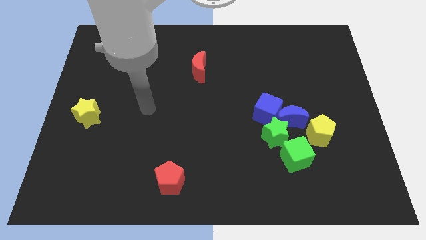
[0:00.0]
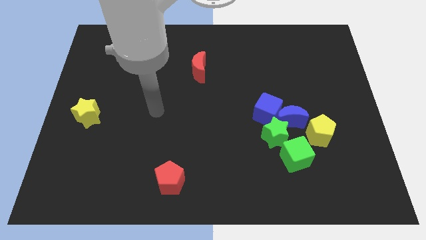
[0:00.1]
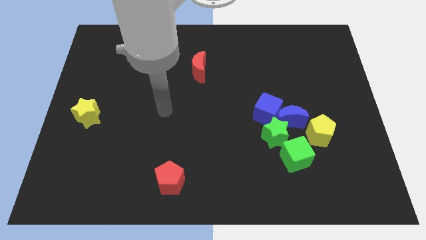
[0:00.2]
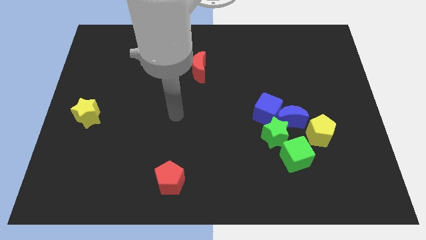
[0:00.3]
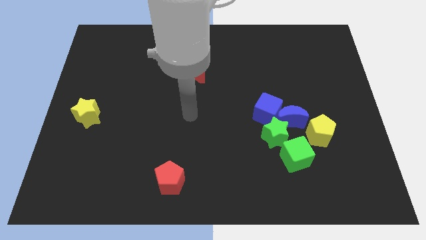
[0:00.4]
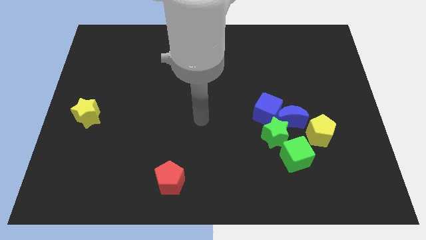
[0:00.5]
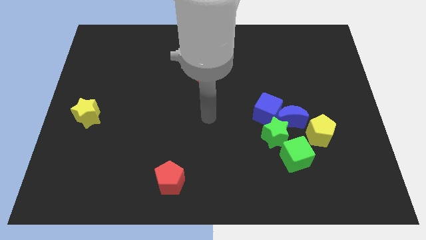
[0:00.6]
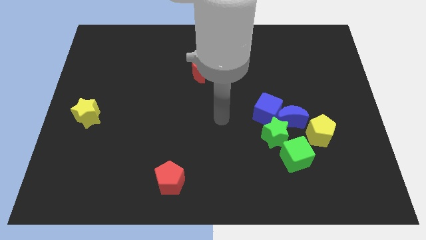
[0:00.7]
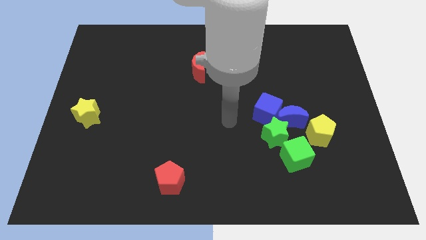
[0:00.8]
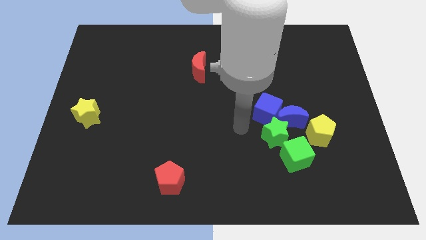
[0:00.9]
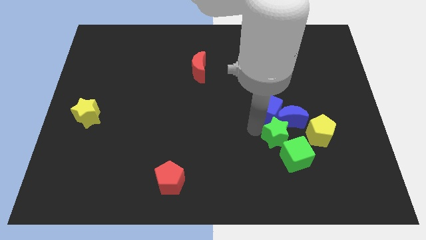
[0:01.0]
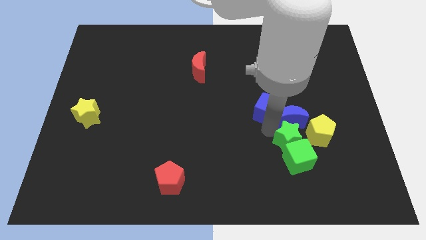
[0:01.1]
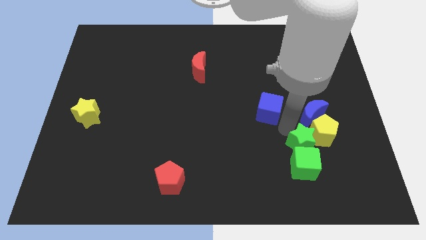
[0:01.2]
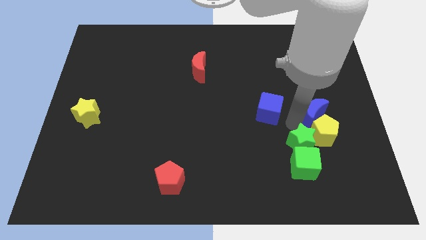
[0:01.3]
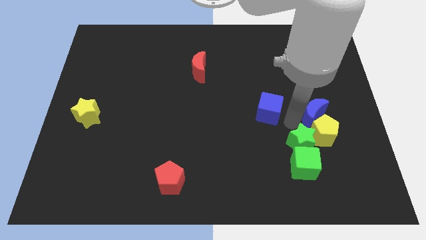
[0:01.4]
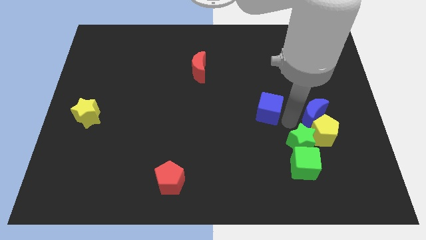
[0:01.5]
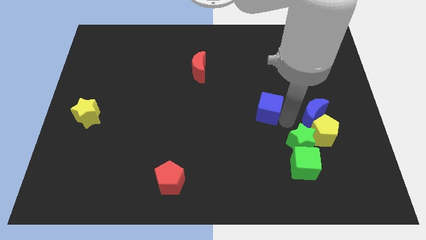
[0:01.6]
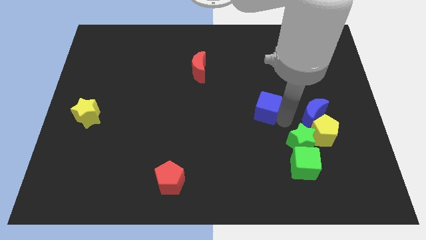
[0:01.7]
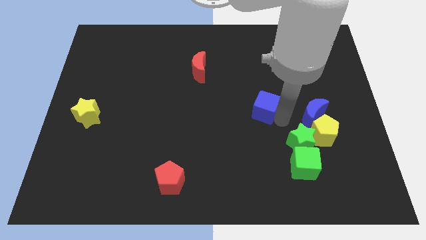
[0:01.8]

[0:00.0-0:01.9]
pull the blue cube apart from the blue moon and green star

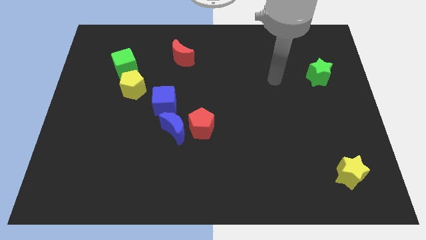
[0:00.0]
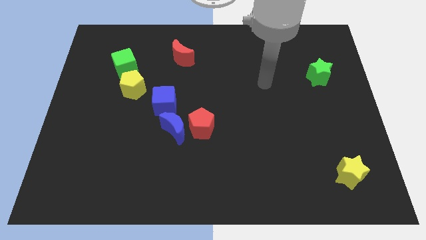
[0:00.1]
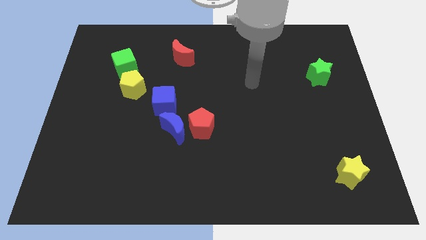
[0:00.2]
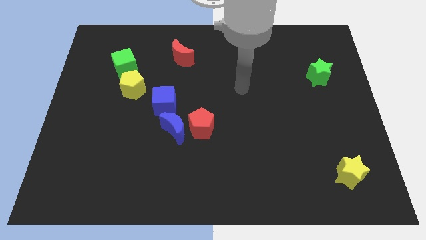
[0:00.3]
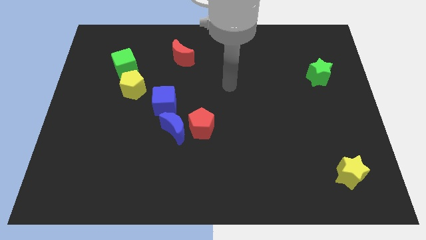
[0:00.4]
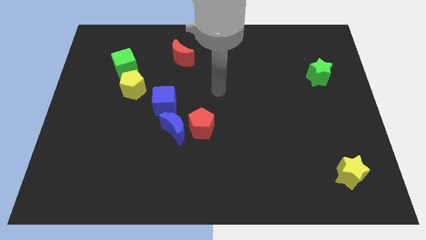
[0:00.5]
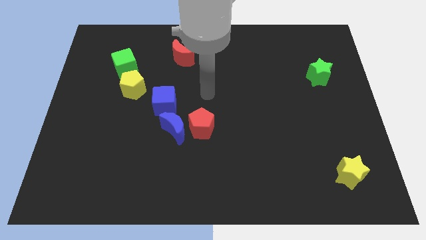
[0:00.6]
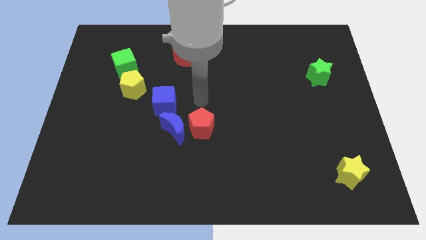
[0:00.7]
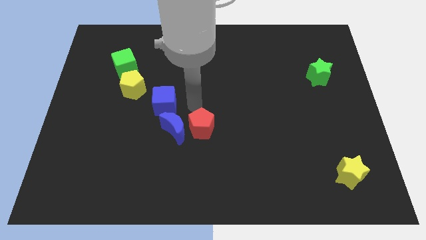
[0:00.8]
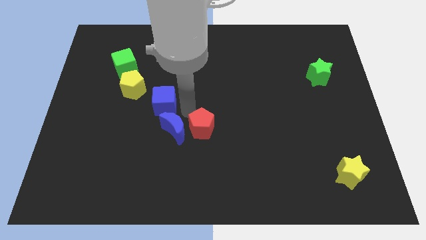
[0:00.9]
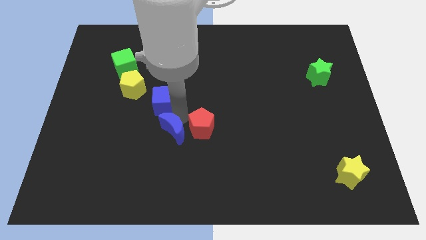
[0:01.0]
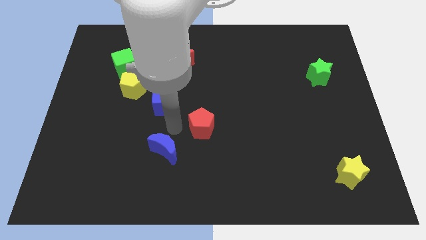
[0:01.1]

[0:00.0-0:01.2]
move the red pentagon away from the blue moon

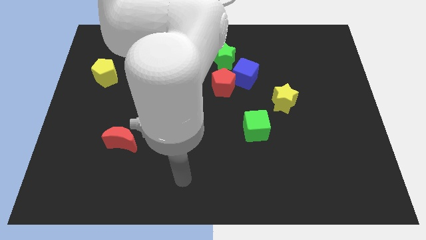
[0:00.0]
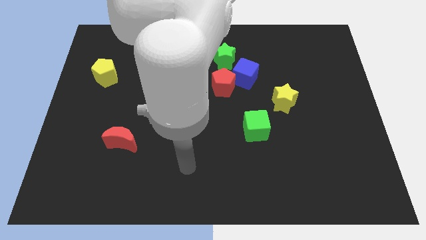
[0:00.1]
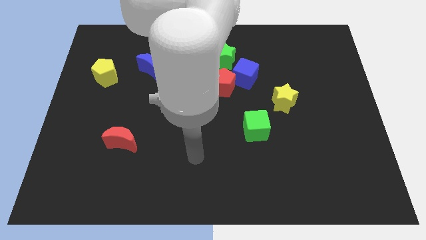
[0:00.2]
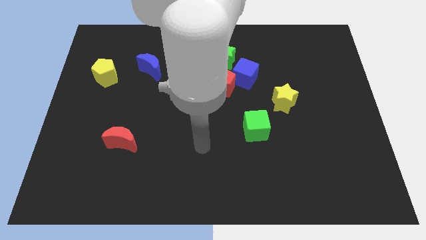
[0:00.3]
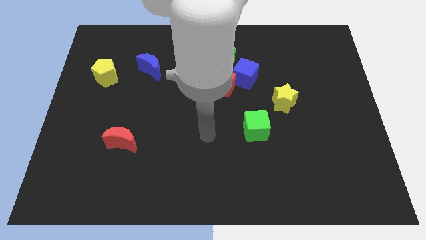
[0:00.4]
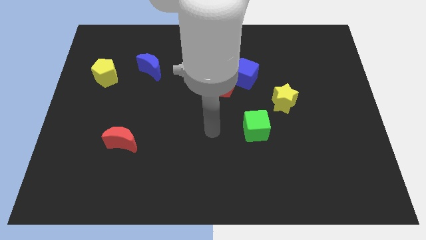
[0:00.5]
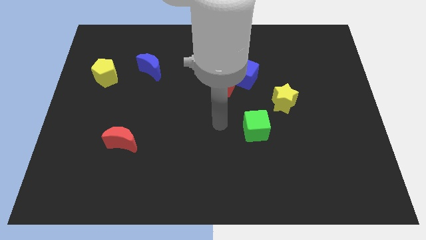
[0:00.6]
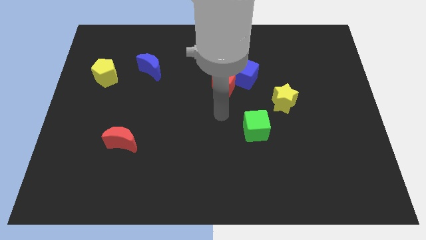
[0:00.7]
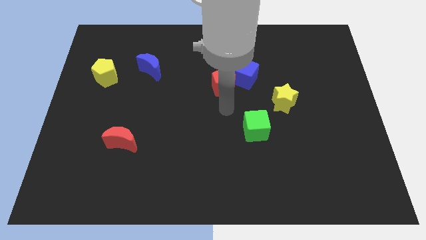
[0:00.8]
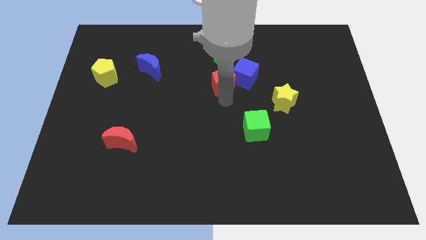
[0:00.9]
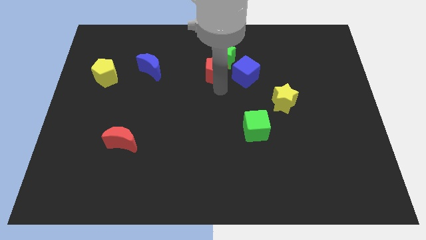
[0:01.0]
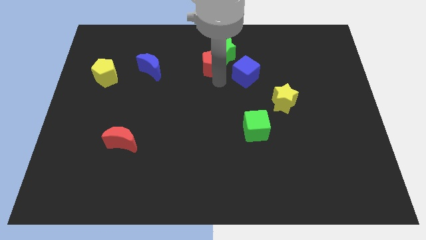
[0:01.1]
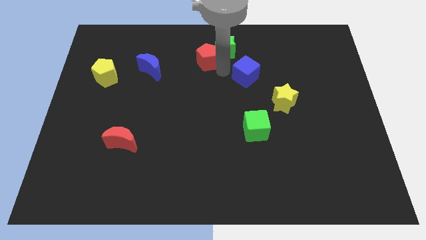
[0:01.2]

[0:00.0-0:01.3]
pull the blue cube apart from the red pentagon and green star

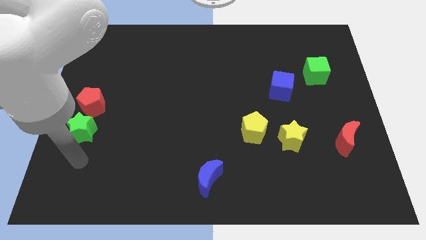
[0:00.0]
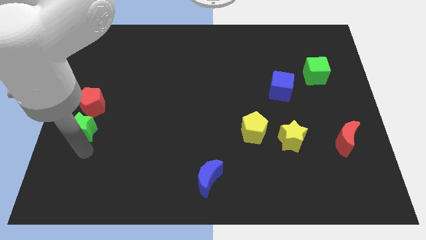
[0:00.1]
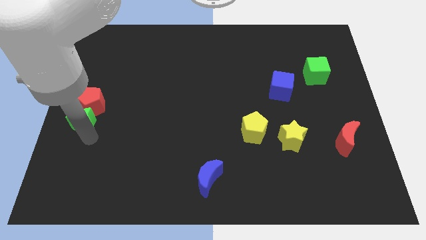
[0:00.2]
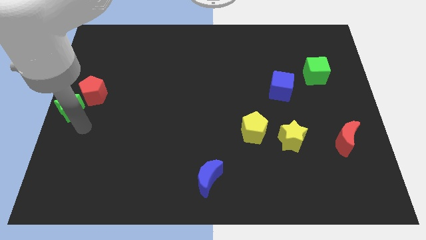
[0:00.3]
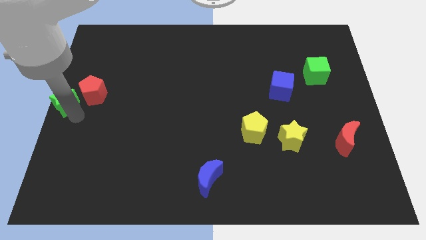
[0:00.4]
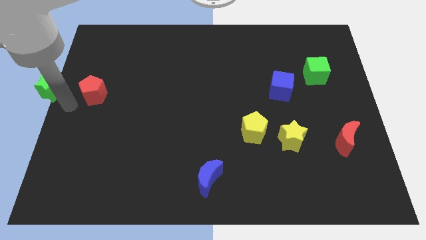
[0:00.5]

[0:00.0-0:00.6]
pull the red pentagon apart from the green star

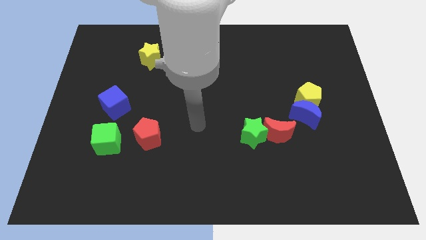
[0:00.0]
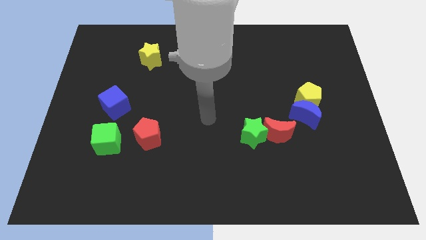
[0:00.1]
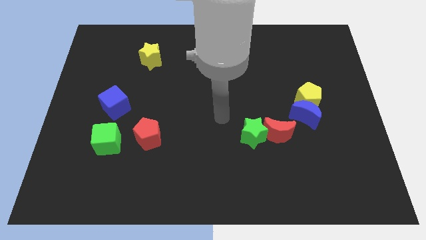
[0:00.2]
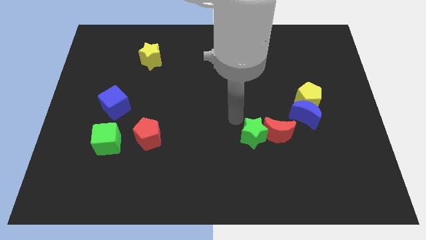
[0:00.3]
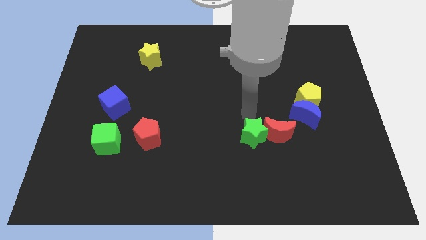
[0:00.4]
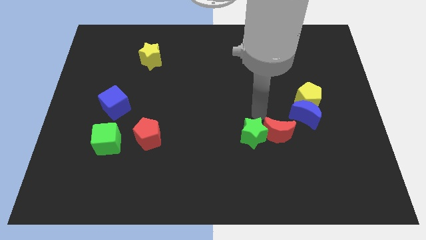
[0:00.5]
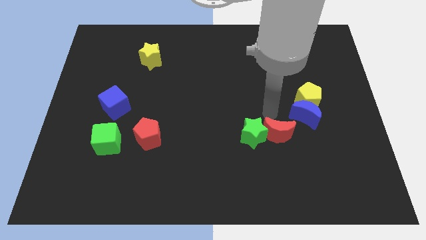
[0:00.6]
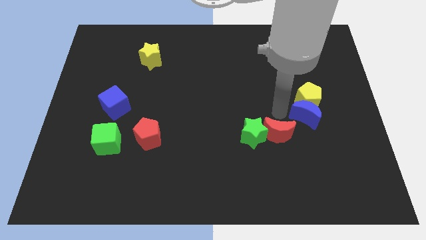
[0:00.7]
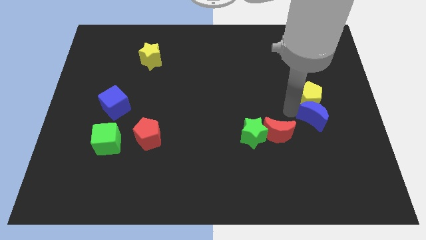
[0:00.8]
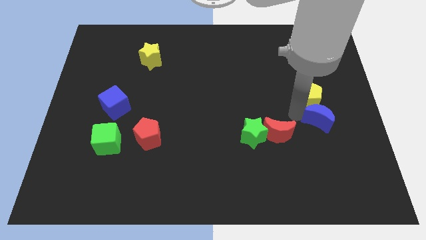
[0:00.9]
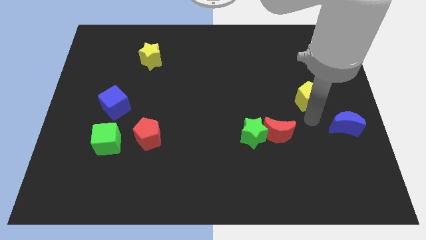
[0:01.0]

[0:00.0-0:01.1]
move the yellow pentagon away from the blue moon

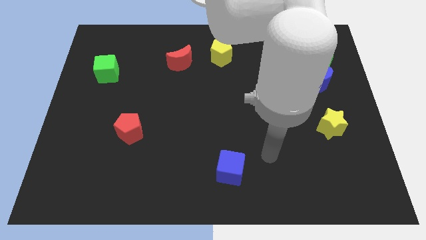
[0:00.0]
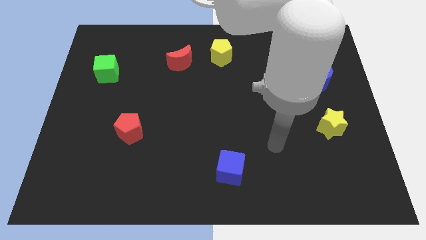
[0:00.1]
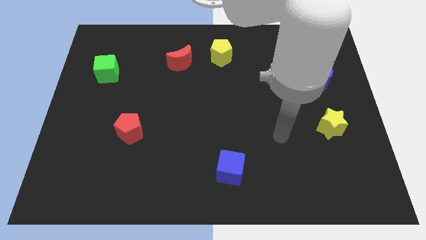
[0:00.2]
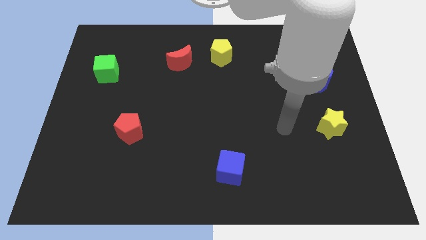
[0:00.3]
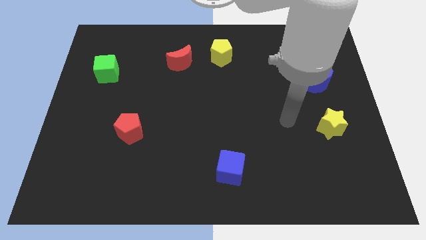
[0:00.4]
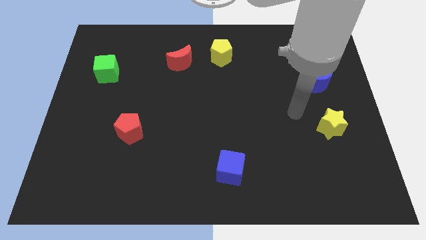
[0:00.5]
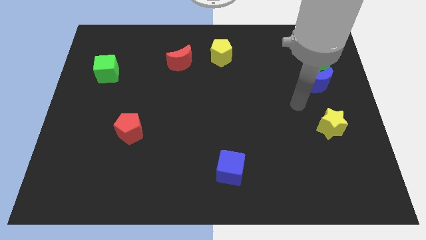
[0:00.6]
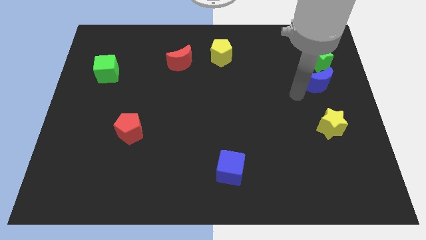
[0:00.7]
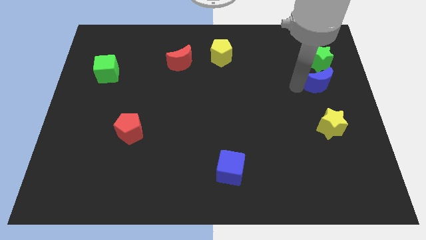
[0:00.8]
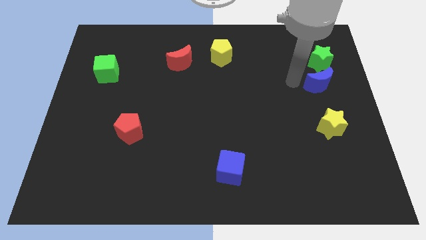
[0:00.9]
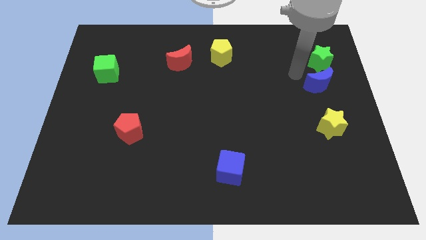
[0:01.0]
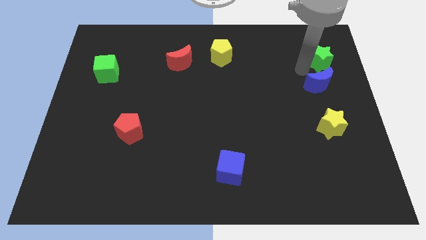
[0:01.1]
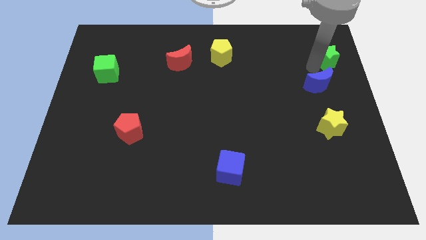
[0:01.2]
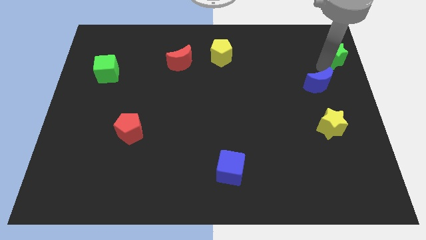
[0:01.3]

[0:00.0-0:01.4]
move the blue moon away from the green star

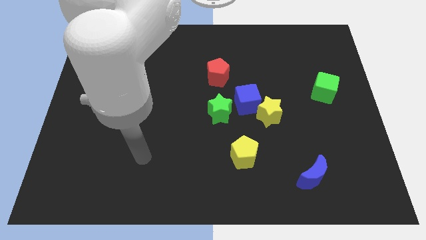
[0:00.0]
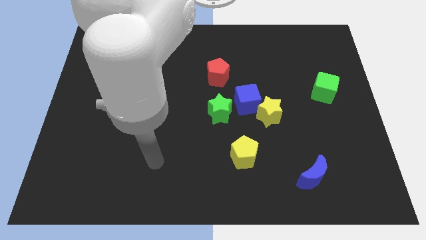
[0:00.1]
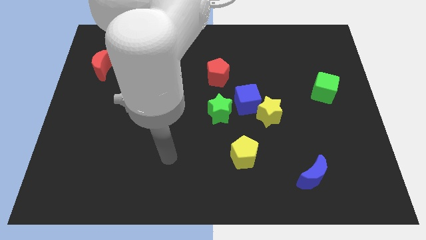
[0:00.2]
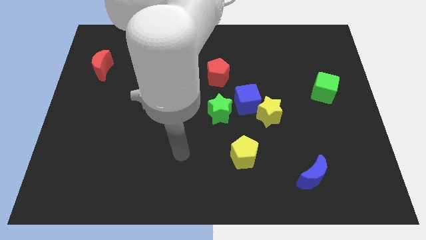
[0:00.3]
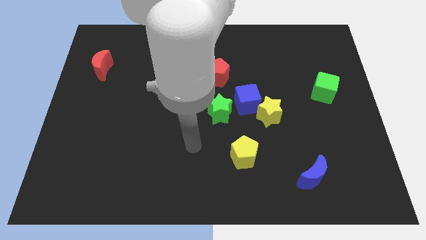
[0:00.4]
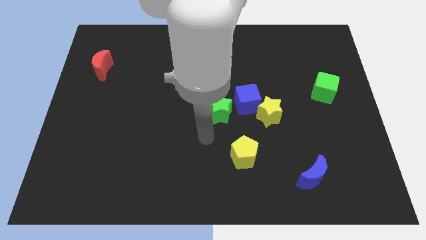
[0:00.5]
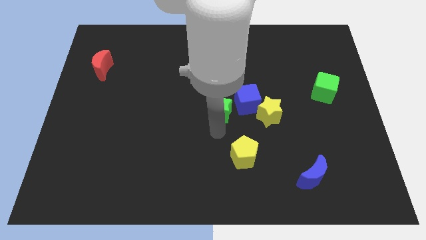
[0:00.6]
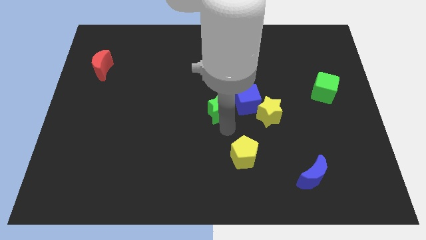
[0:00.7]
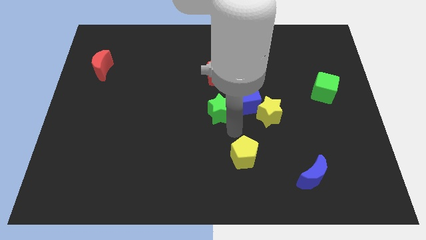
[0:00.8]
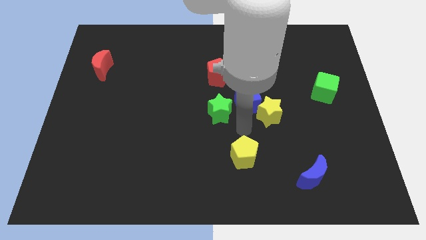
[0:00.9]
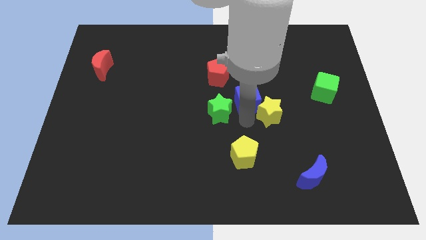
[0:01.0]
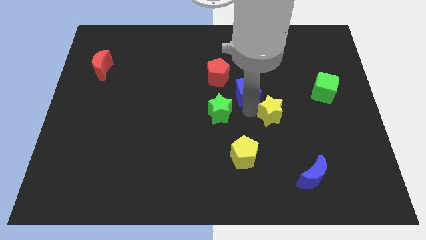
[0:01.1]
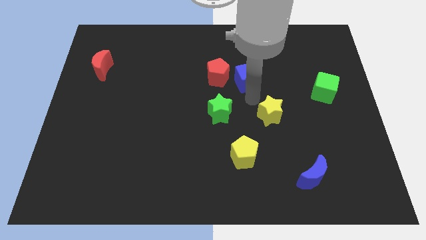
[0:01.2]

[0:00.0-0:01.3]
move the yellow star away from the blue cube

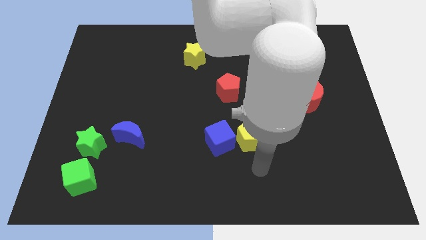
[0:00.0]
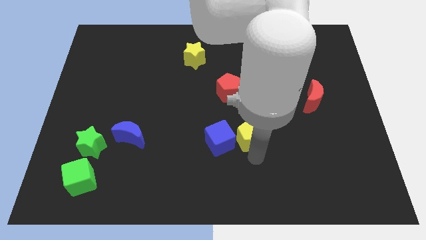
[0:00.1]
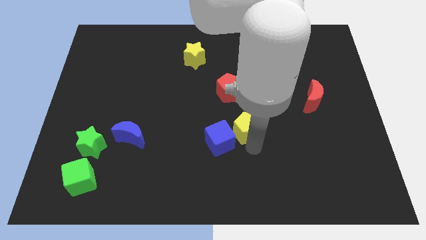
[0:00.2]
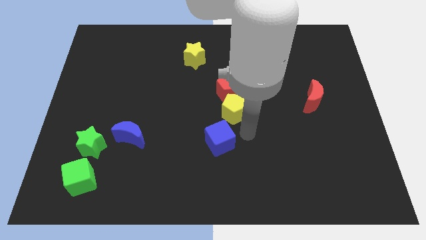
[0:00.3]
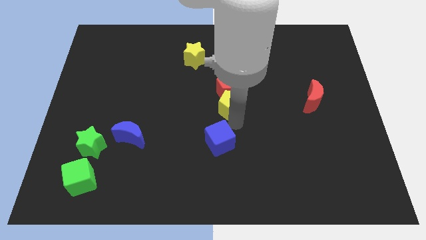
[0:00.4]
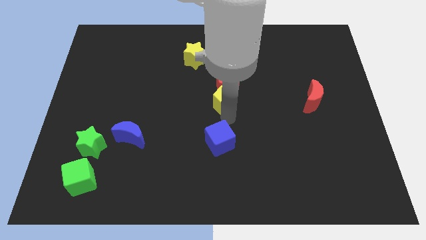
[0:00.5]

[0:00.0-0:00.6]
separate the blue cube from the yellow pentagon
